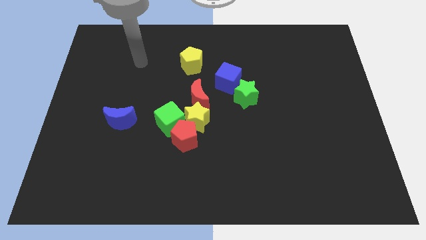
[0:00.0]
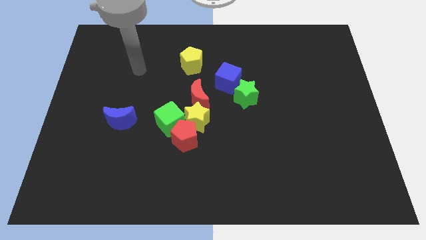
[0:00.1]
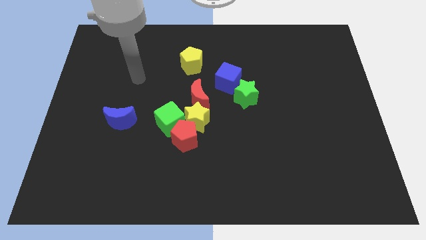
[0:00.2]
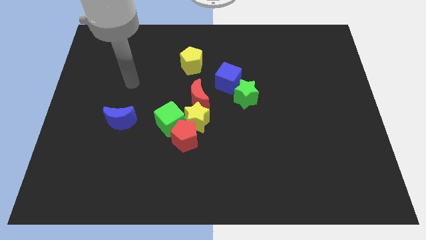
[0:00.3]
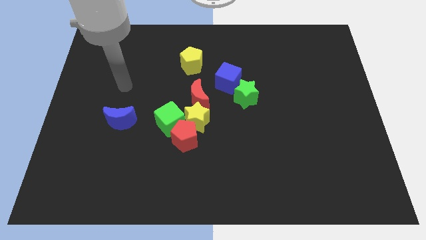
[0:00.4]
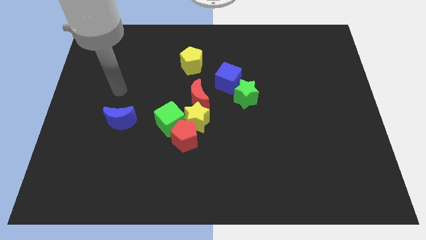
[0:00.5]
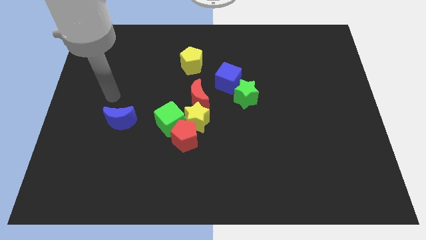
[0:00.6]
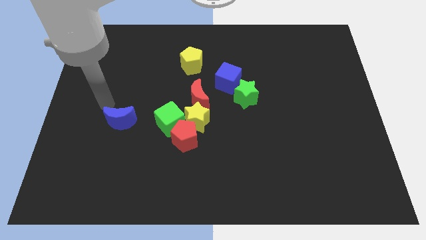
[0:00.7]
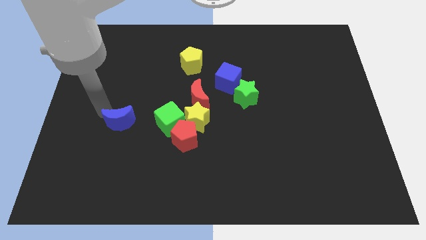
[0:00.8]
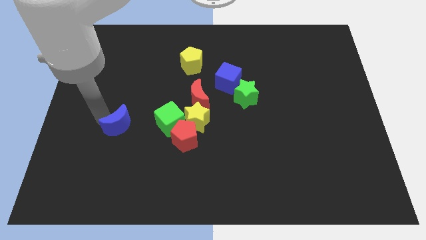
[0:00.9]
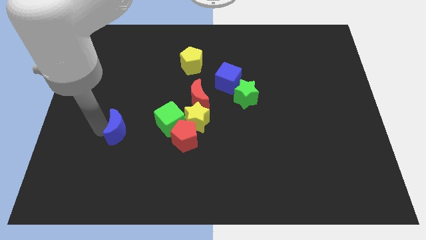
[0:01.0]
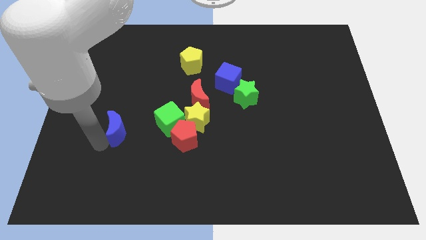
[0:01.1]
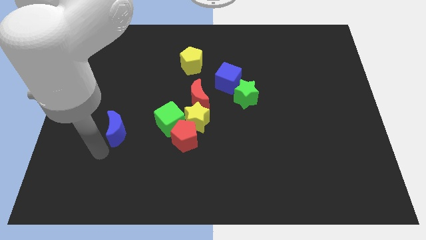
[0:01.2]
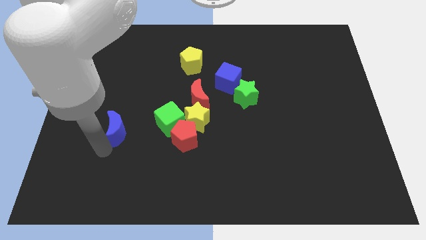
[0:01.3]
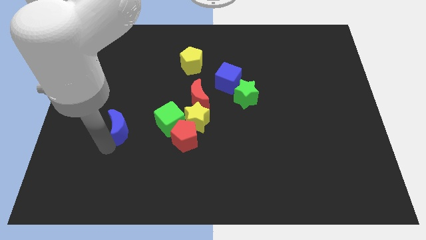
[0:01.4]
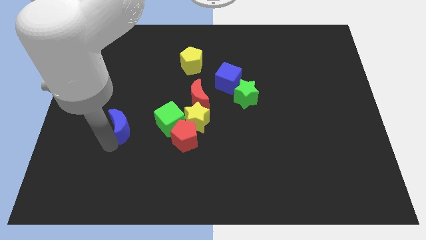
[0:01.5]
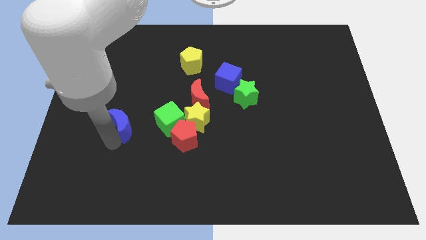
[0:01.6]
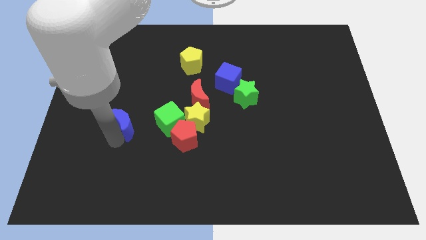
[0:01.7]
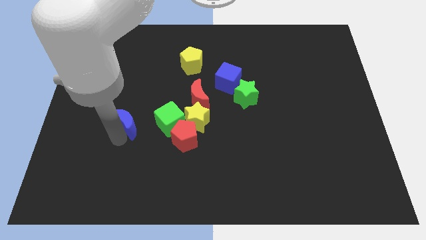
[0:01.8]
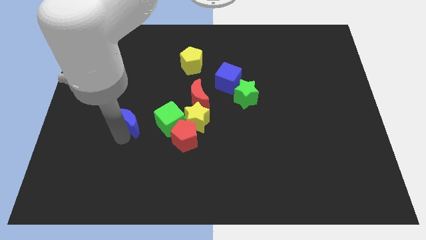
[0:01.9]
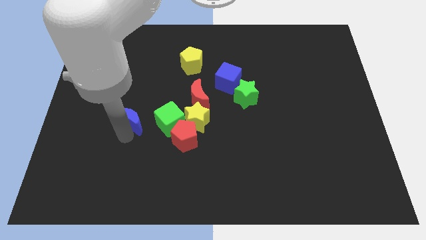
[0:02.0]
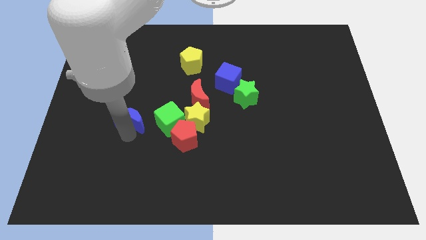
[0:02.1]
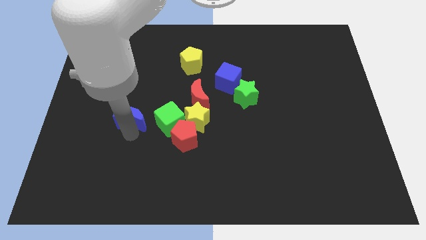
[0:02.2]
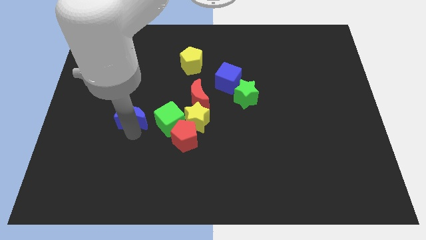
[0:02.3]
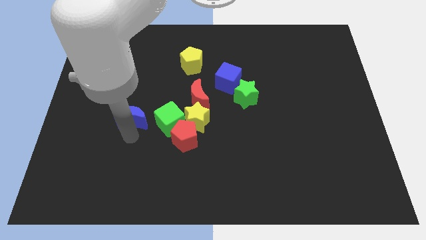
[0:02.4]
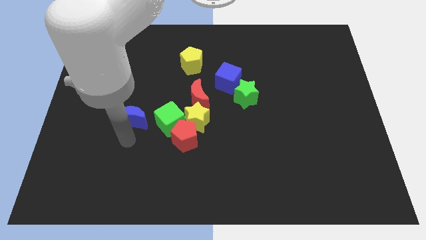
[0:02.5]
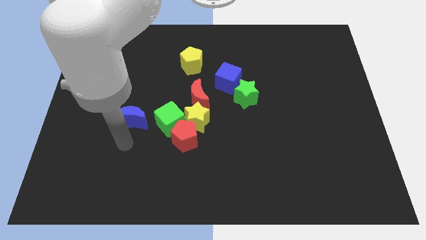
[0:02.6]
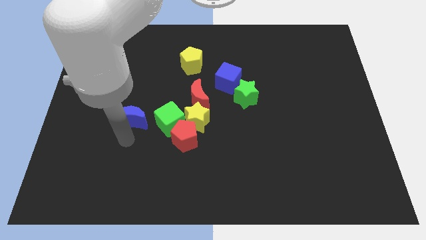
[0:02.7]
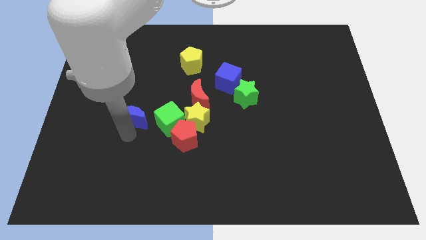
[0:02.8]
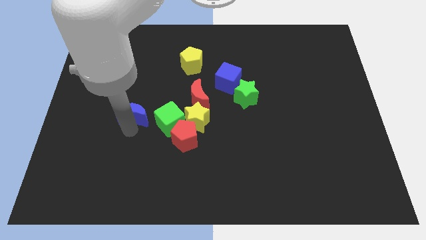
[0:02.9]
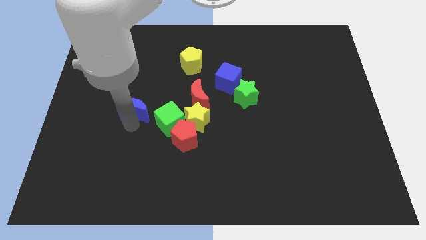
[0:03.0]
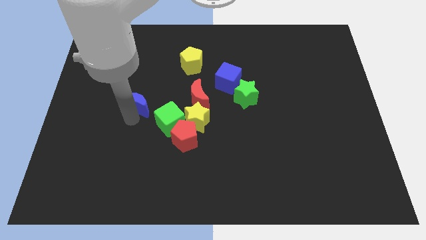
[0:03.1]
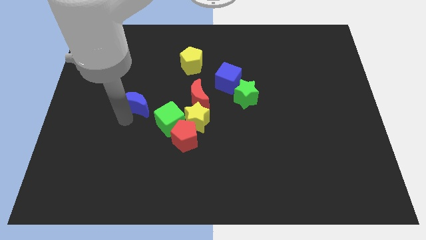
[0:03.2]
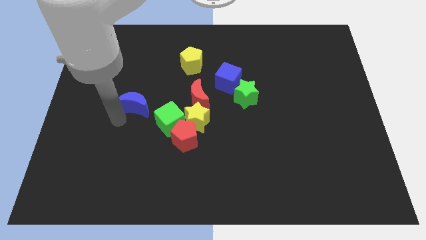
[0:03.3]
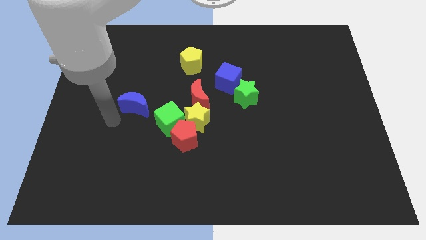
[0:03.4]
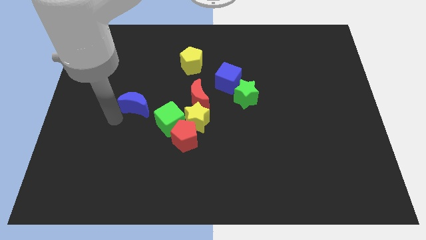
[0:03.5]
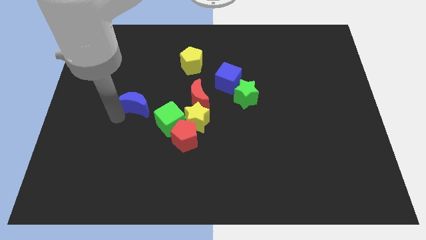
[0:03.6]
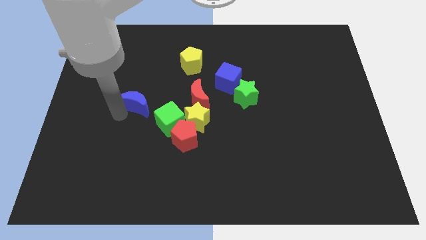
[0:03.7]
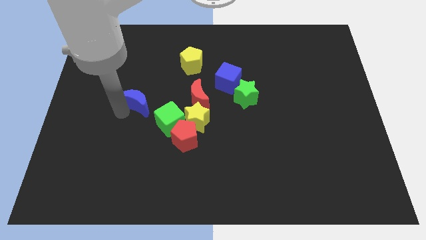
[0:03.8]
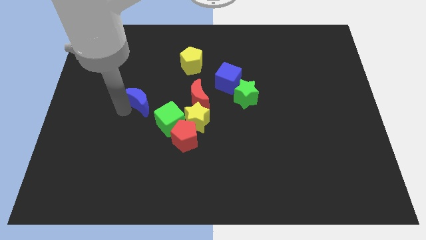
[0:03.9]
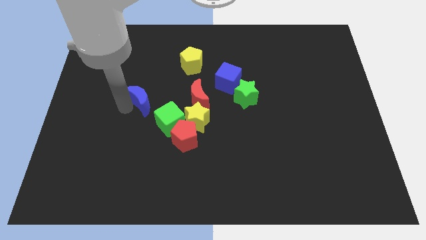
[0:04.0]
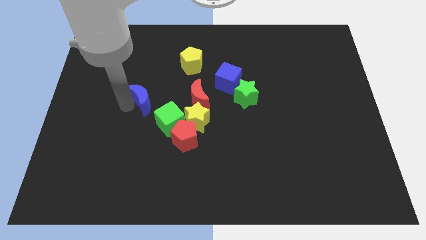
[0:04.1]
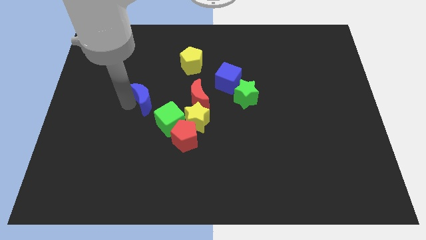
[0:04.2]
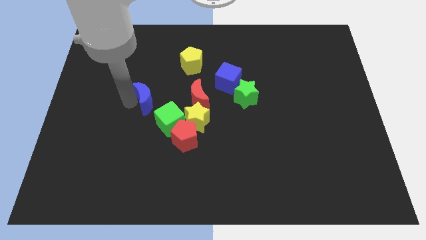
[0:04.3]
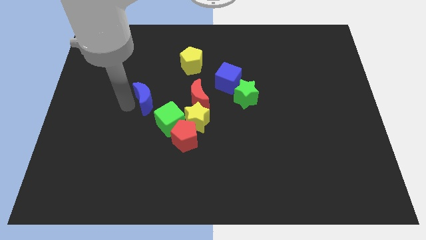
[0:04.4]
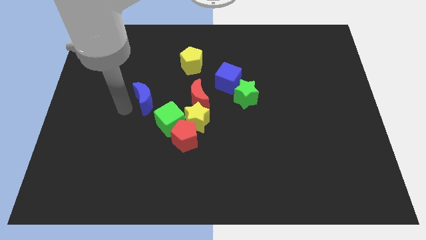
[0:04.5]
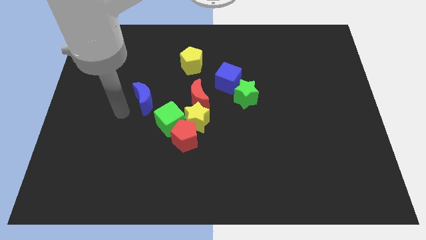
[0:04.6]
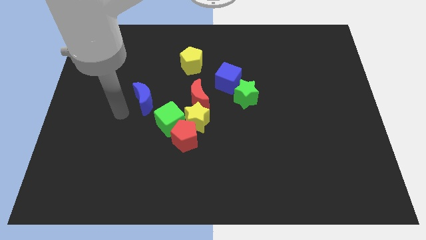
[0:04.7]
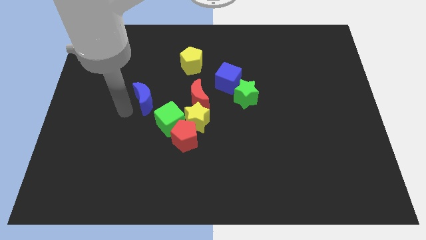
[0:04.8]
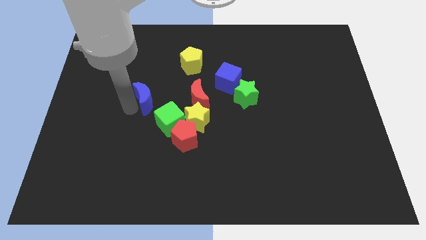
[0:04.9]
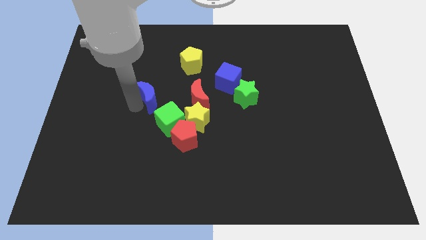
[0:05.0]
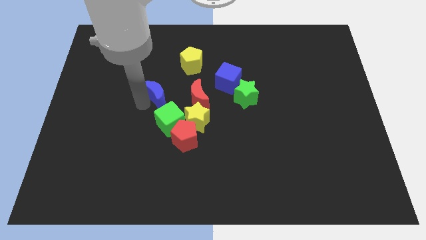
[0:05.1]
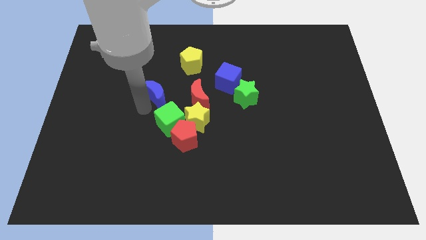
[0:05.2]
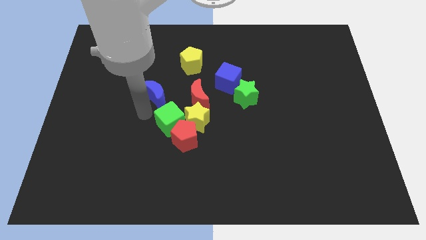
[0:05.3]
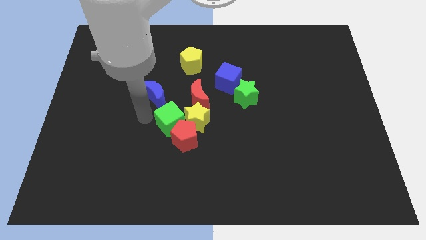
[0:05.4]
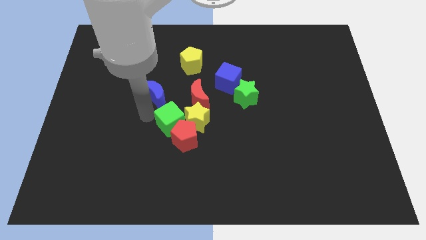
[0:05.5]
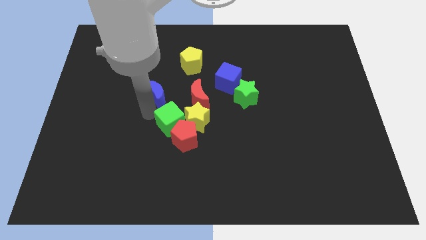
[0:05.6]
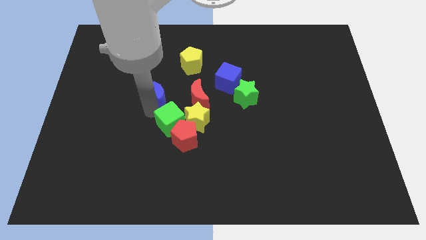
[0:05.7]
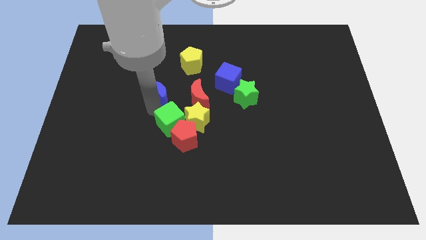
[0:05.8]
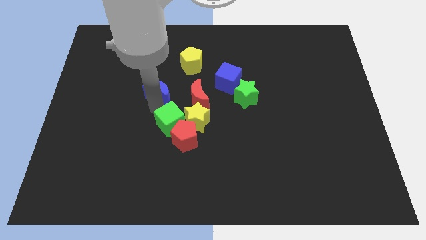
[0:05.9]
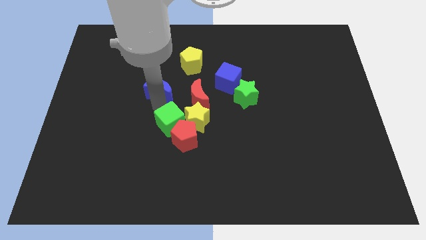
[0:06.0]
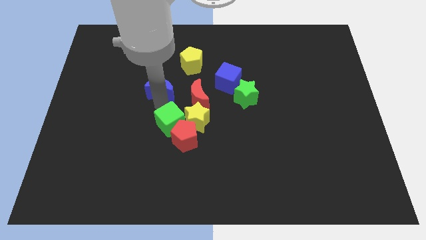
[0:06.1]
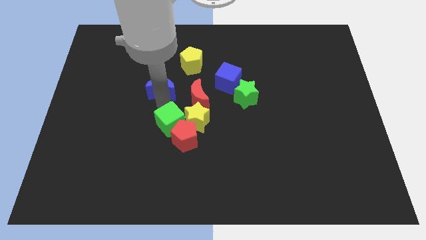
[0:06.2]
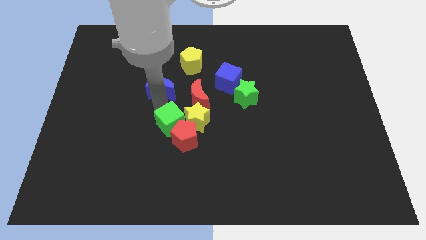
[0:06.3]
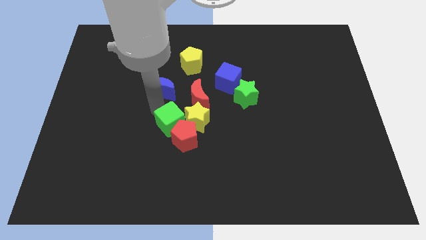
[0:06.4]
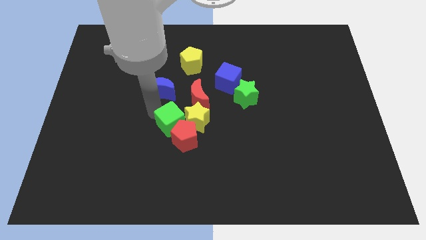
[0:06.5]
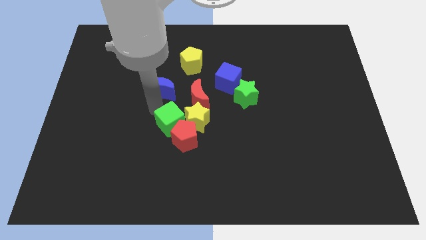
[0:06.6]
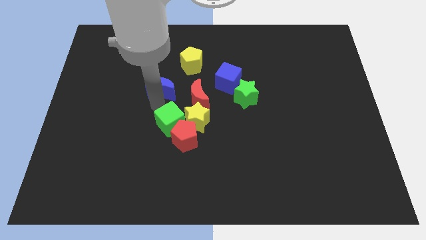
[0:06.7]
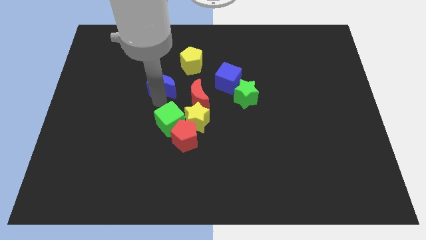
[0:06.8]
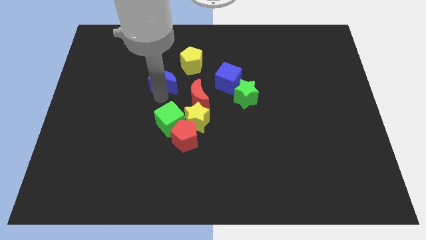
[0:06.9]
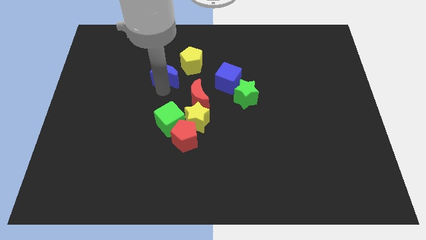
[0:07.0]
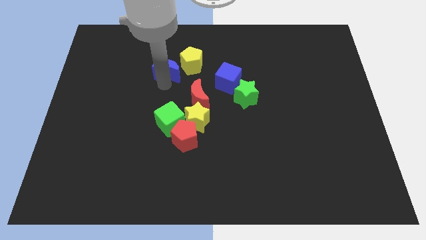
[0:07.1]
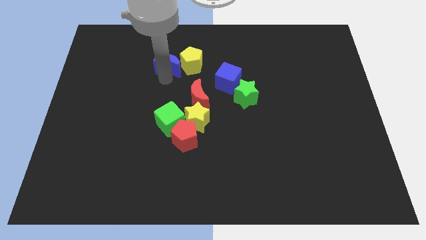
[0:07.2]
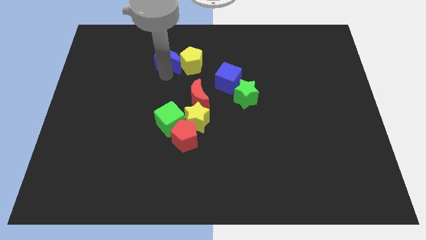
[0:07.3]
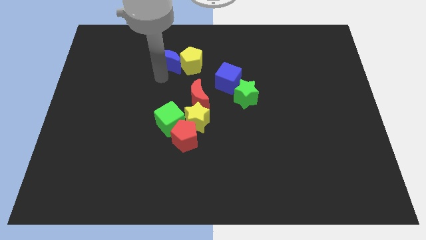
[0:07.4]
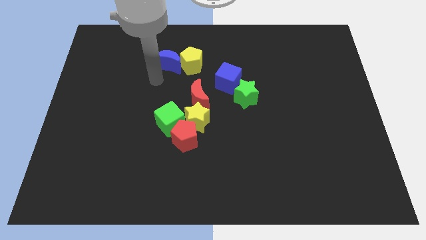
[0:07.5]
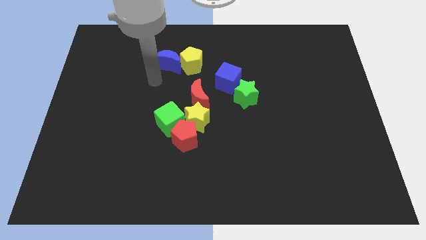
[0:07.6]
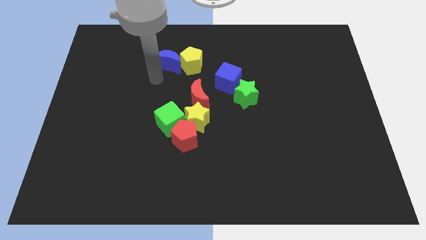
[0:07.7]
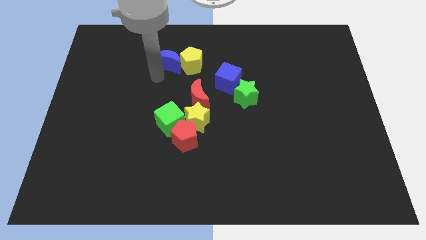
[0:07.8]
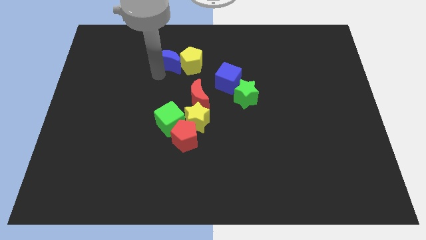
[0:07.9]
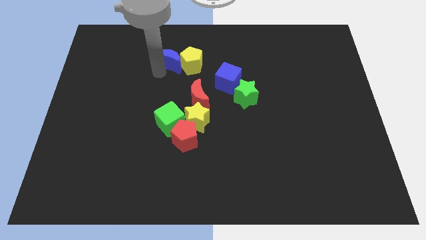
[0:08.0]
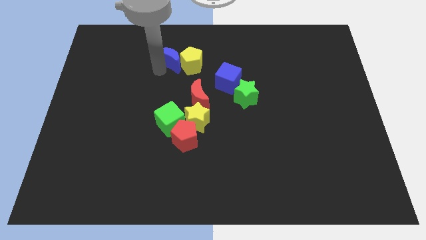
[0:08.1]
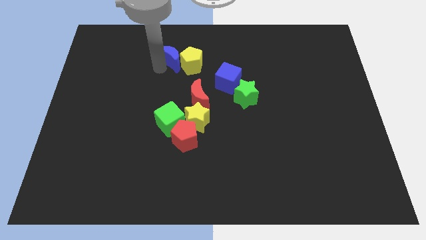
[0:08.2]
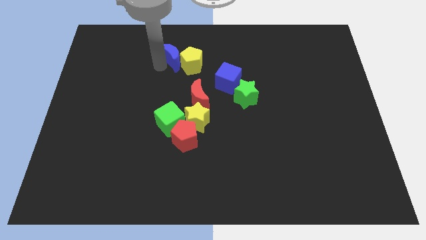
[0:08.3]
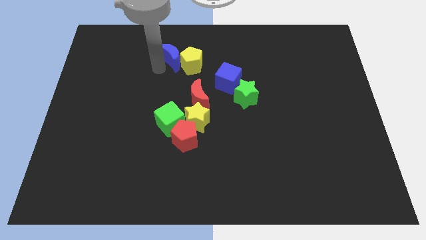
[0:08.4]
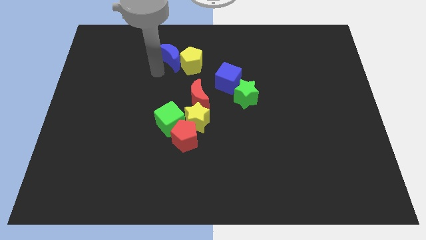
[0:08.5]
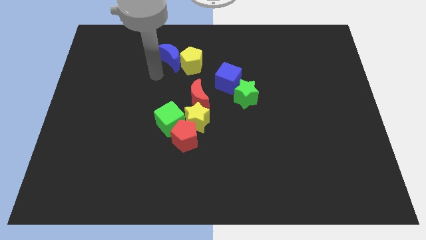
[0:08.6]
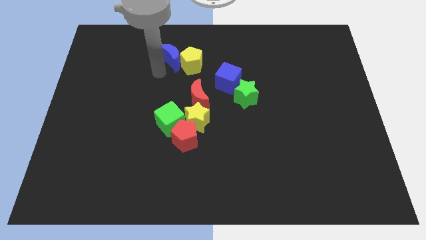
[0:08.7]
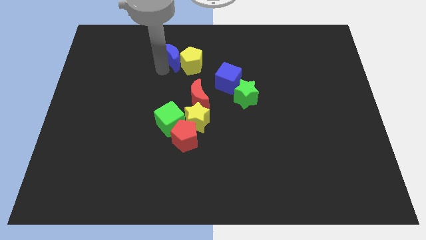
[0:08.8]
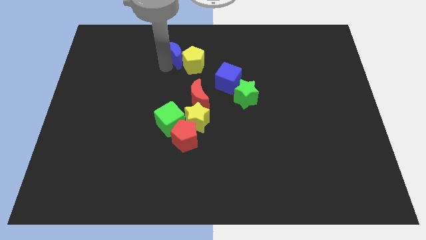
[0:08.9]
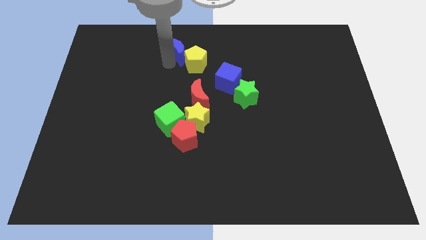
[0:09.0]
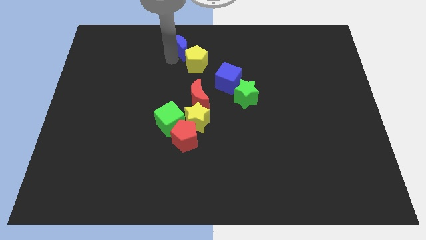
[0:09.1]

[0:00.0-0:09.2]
put the blue moon to the towards your base
